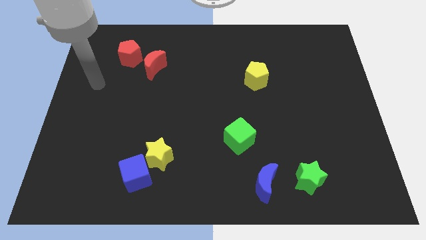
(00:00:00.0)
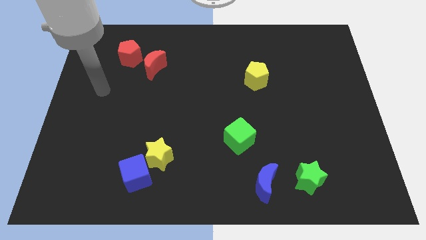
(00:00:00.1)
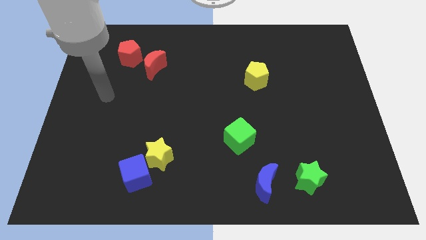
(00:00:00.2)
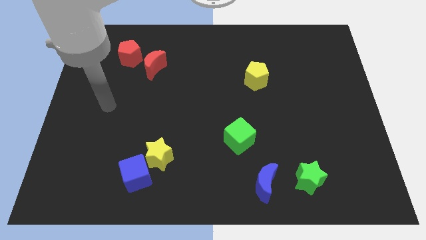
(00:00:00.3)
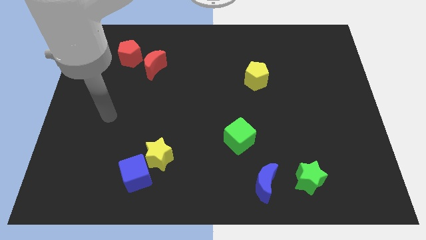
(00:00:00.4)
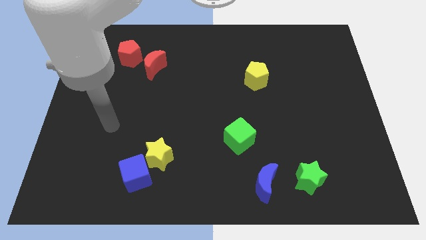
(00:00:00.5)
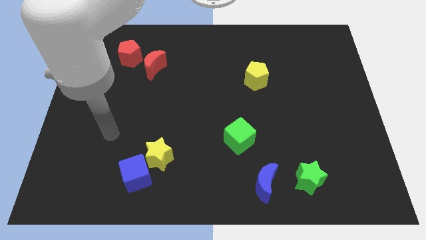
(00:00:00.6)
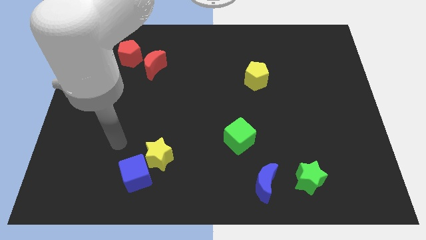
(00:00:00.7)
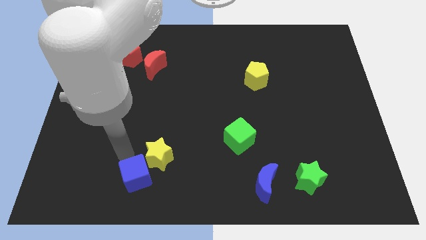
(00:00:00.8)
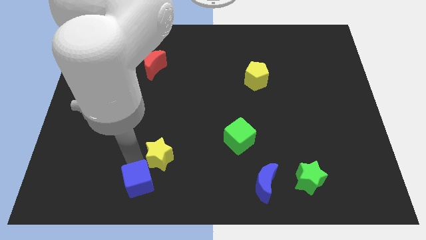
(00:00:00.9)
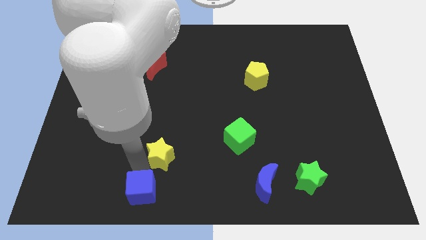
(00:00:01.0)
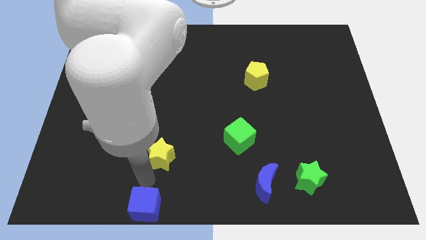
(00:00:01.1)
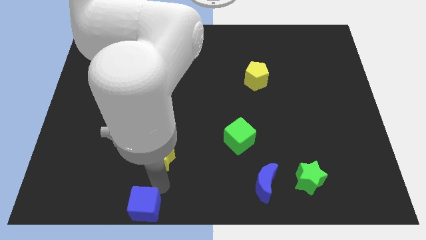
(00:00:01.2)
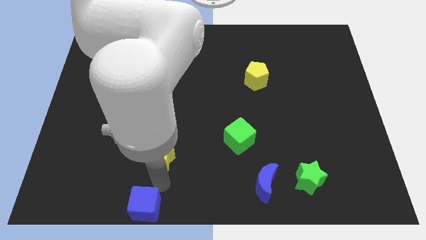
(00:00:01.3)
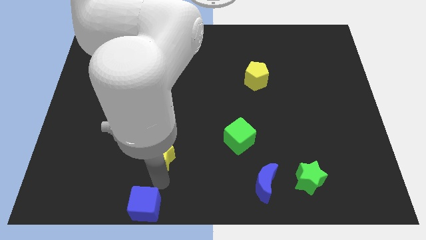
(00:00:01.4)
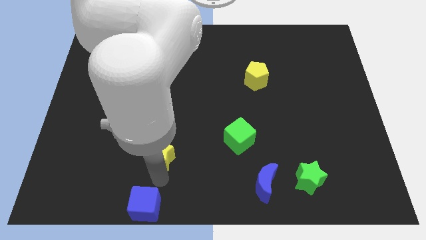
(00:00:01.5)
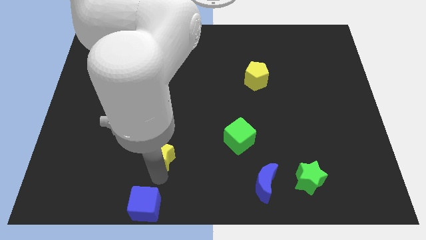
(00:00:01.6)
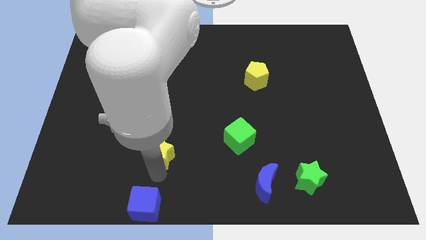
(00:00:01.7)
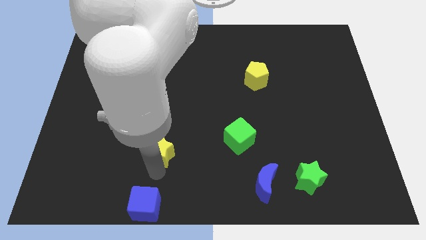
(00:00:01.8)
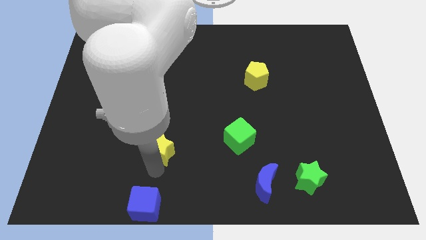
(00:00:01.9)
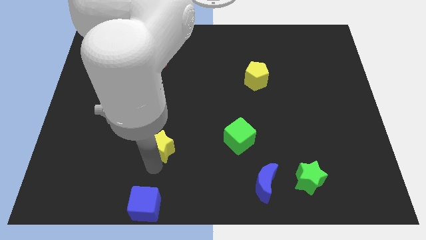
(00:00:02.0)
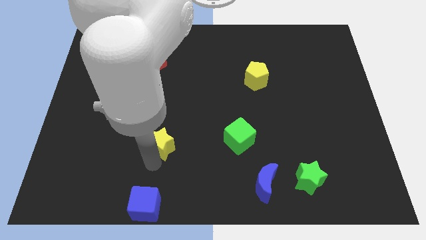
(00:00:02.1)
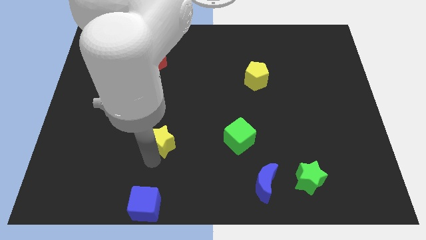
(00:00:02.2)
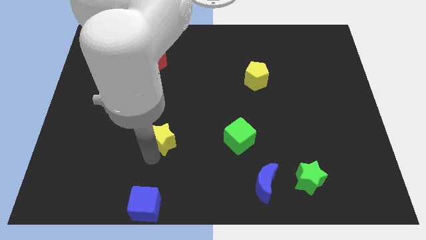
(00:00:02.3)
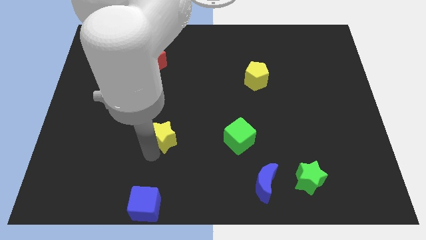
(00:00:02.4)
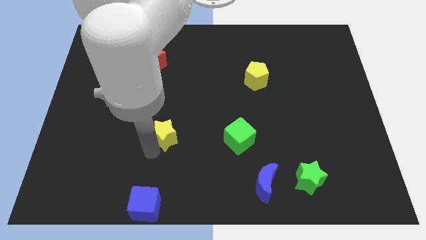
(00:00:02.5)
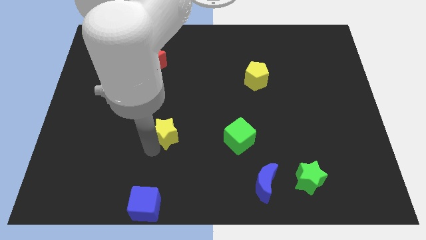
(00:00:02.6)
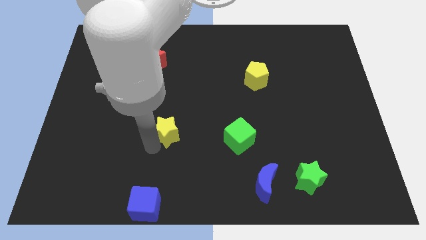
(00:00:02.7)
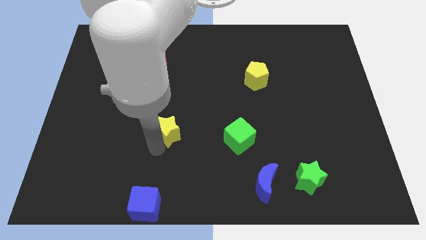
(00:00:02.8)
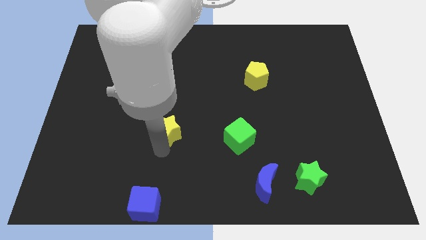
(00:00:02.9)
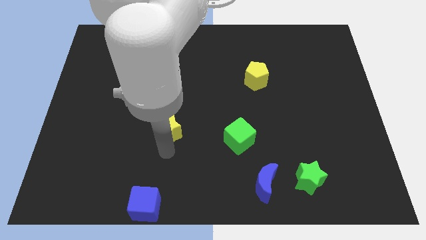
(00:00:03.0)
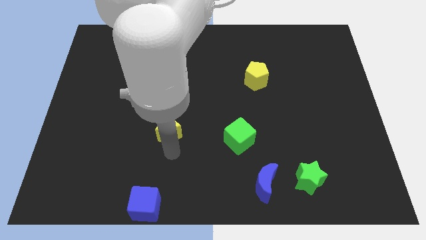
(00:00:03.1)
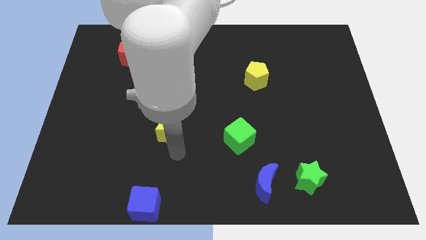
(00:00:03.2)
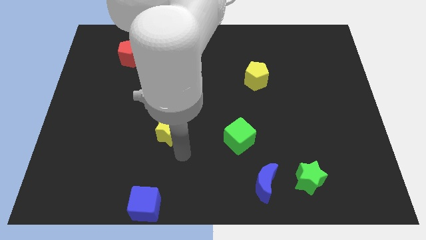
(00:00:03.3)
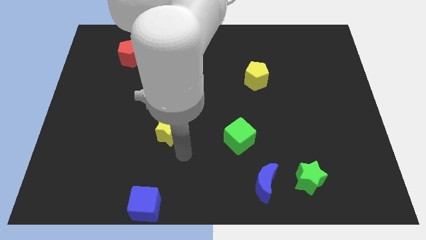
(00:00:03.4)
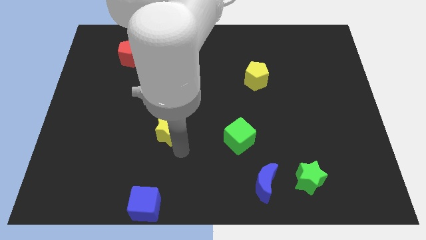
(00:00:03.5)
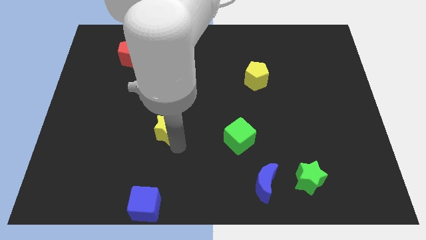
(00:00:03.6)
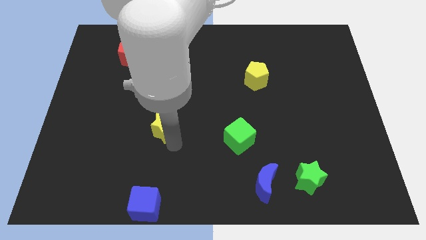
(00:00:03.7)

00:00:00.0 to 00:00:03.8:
slide the yellow star up a little bit

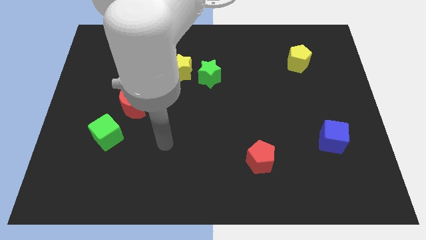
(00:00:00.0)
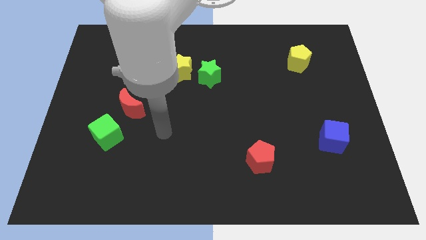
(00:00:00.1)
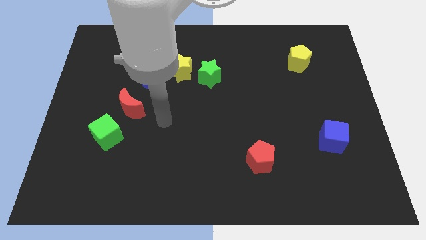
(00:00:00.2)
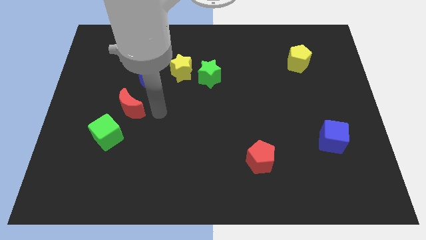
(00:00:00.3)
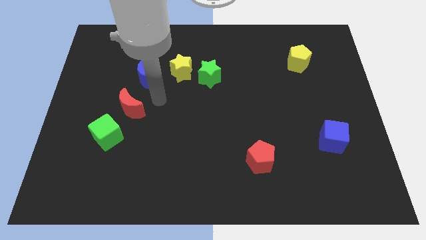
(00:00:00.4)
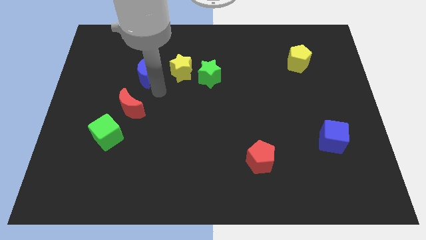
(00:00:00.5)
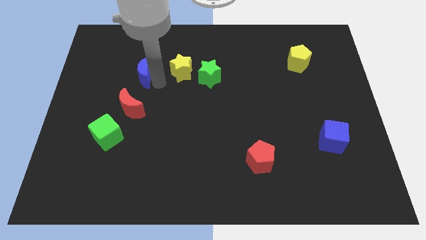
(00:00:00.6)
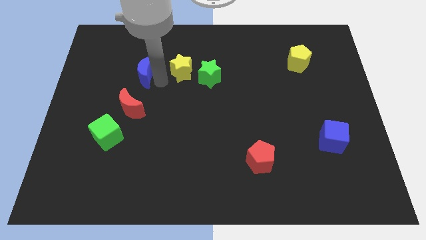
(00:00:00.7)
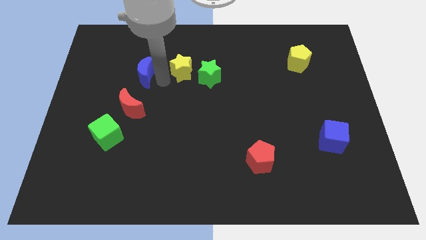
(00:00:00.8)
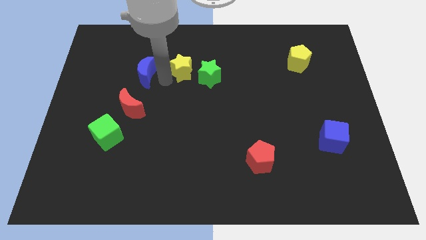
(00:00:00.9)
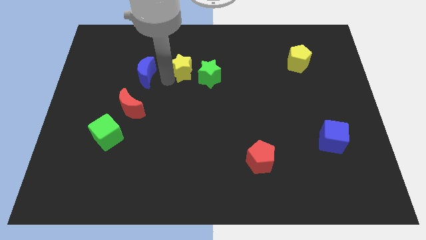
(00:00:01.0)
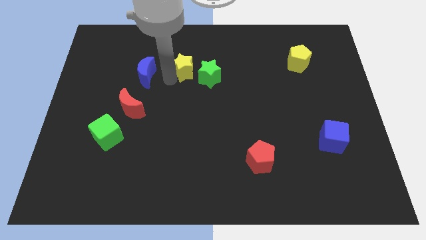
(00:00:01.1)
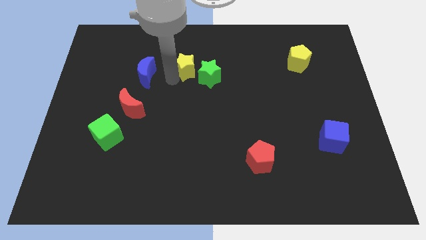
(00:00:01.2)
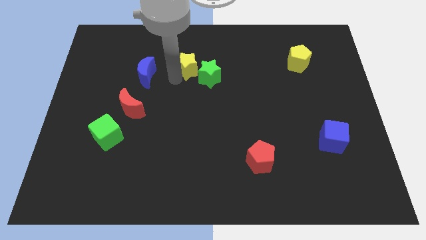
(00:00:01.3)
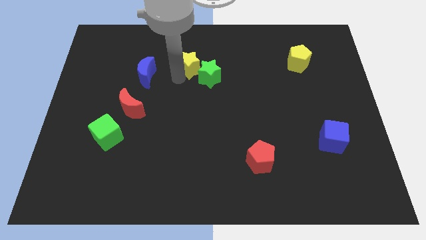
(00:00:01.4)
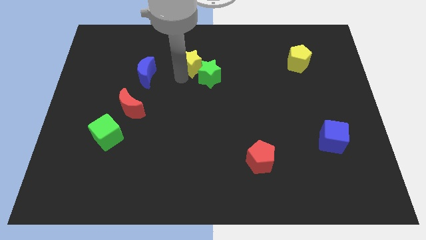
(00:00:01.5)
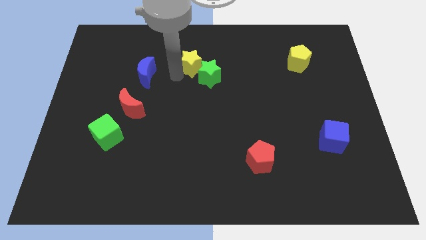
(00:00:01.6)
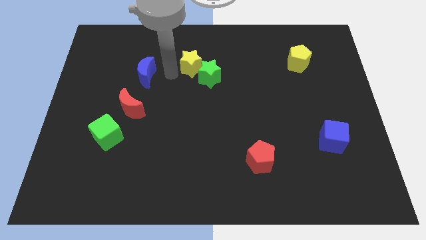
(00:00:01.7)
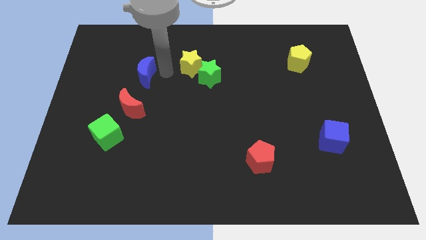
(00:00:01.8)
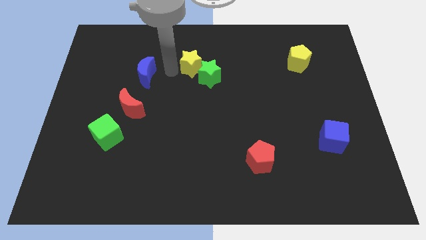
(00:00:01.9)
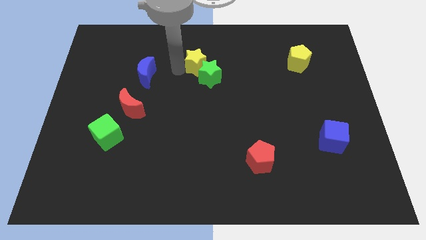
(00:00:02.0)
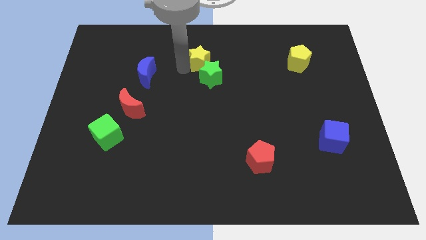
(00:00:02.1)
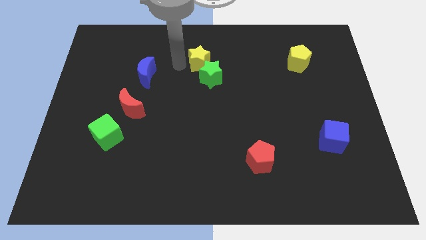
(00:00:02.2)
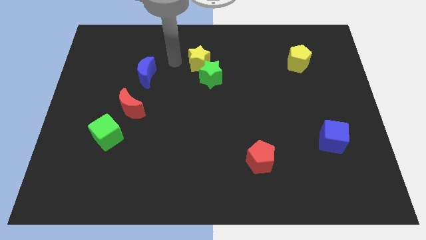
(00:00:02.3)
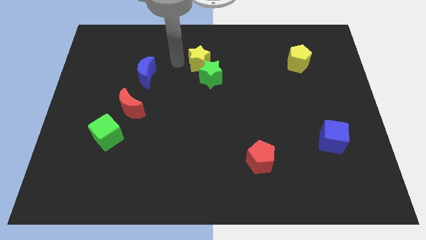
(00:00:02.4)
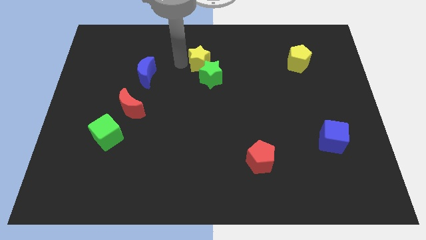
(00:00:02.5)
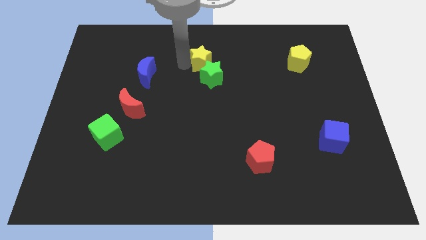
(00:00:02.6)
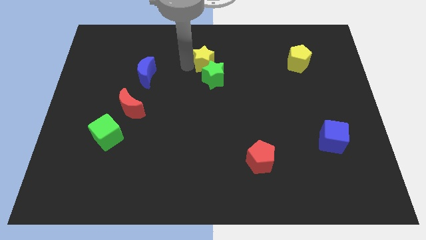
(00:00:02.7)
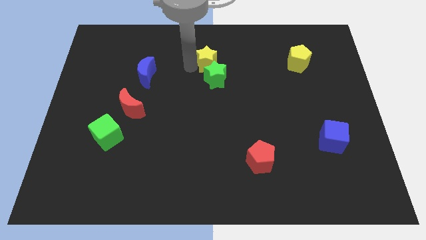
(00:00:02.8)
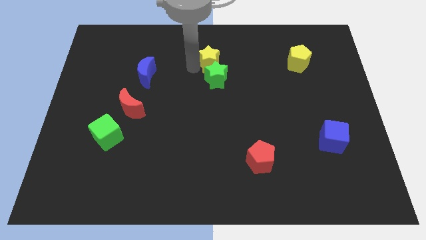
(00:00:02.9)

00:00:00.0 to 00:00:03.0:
push the yellow star somewhat to the right

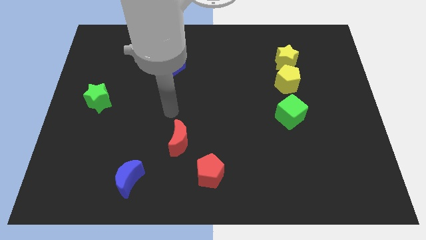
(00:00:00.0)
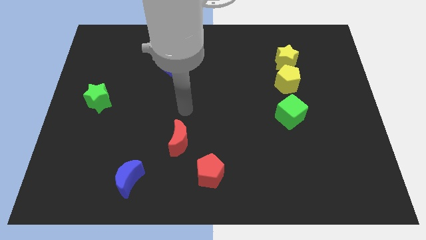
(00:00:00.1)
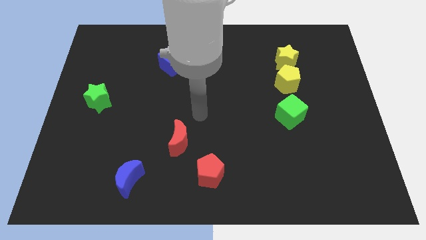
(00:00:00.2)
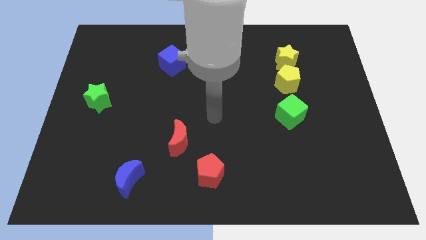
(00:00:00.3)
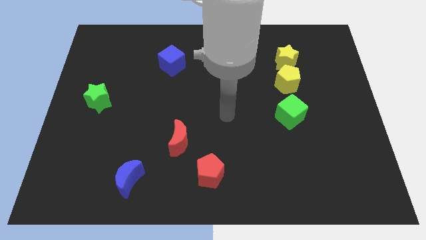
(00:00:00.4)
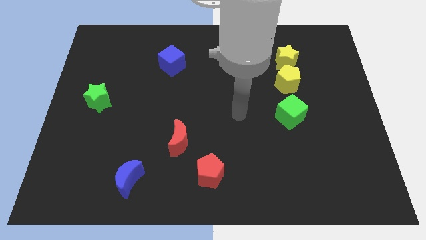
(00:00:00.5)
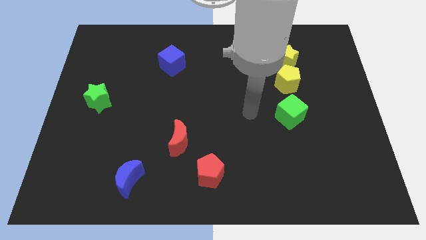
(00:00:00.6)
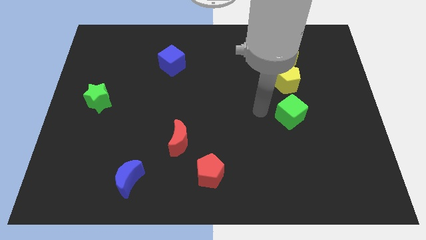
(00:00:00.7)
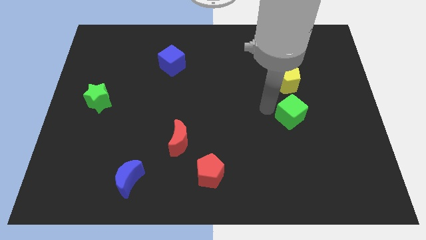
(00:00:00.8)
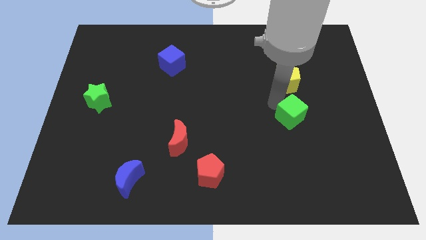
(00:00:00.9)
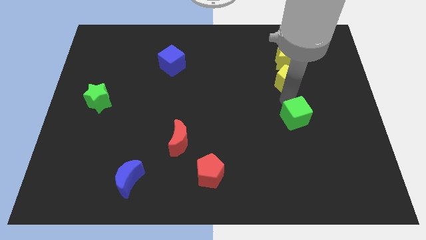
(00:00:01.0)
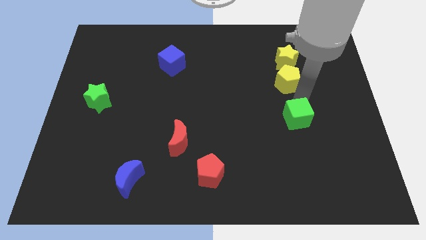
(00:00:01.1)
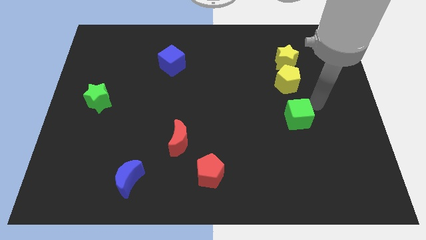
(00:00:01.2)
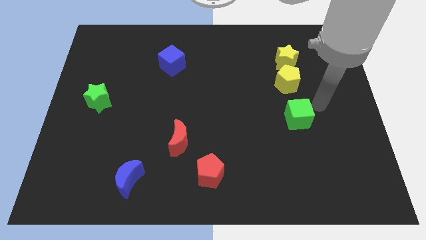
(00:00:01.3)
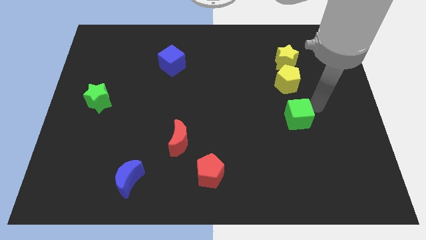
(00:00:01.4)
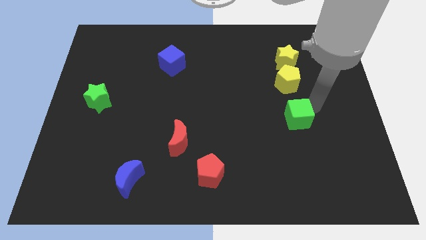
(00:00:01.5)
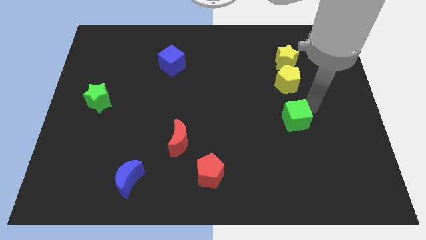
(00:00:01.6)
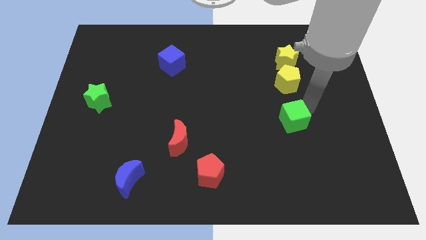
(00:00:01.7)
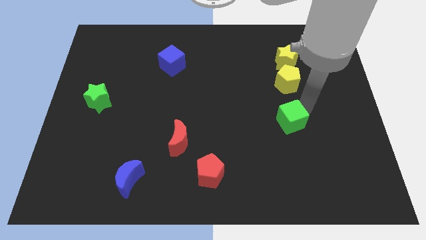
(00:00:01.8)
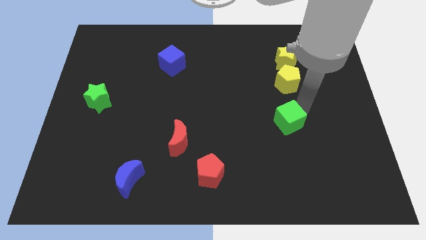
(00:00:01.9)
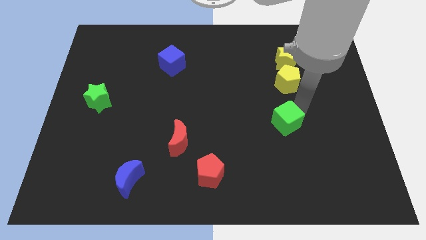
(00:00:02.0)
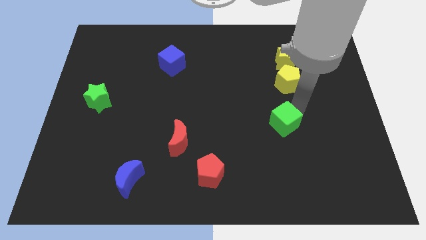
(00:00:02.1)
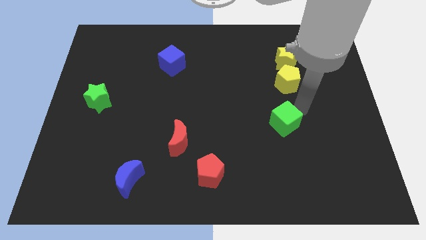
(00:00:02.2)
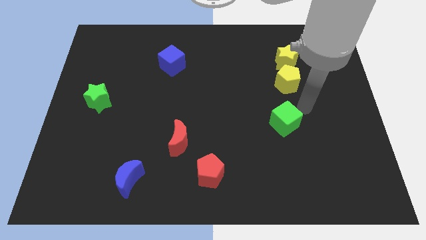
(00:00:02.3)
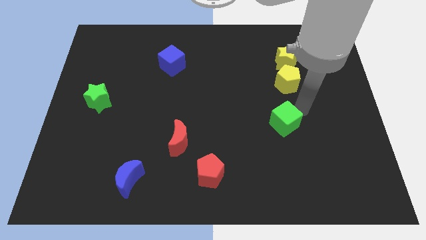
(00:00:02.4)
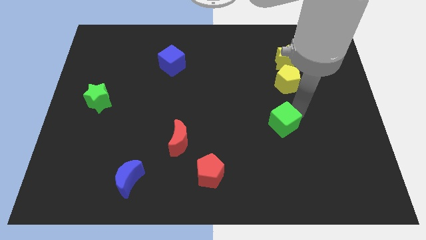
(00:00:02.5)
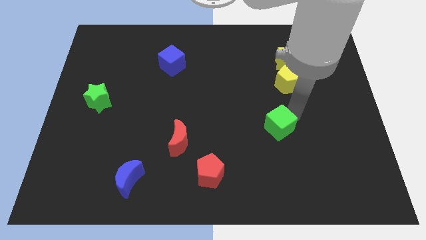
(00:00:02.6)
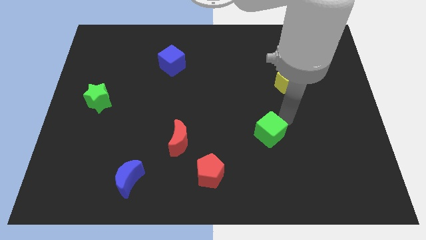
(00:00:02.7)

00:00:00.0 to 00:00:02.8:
push the green cube somewhat downwards and left
